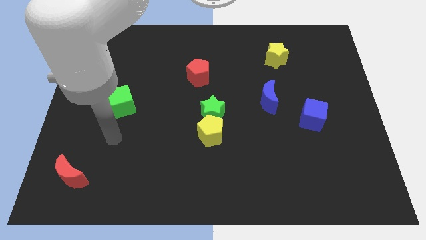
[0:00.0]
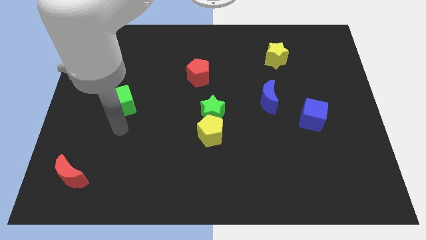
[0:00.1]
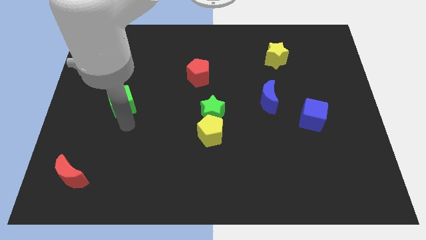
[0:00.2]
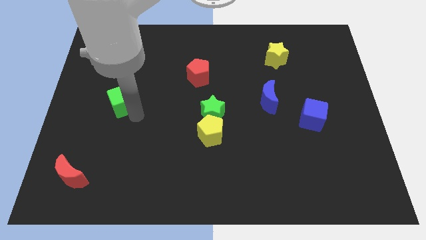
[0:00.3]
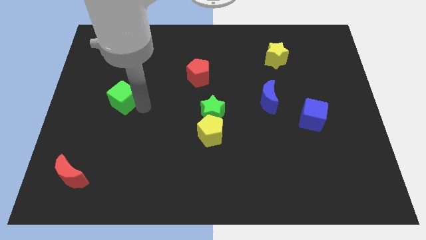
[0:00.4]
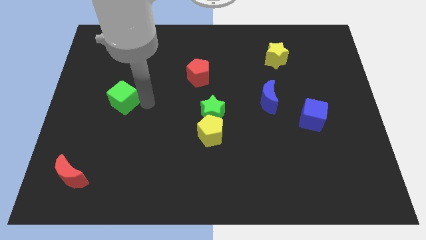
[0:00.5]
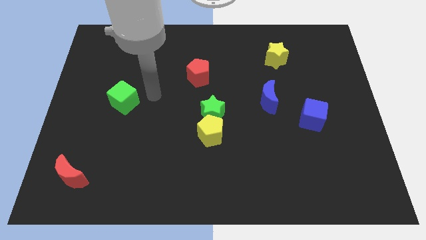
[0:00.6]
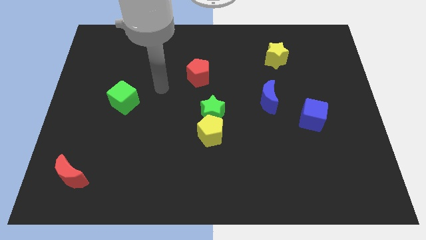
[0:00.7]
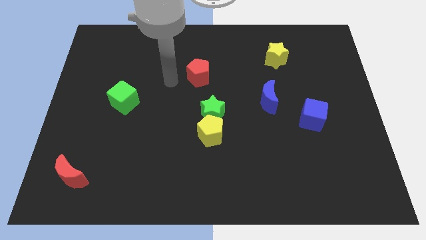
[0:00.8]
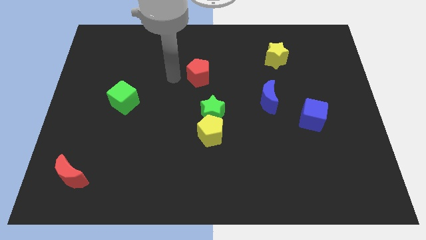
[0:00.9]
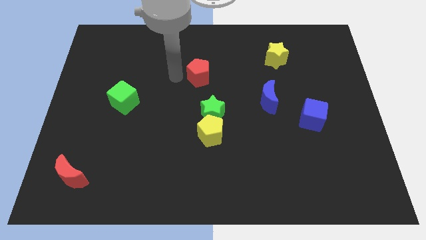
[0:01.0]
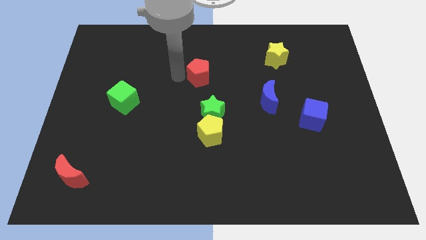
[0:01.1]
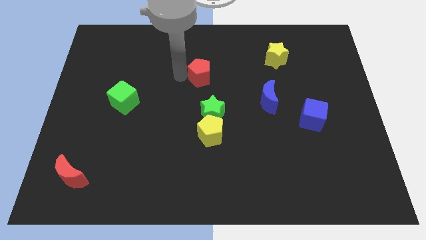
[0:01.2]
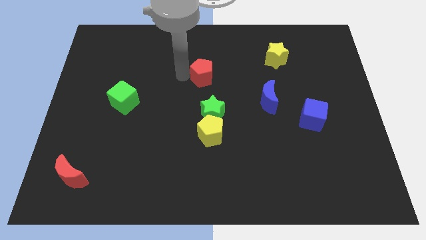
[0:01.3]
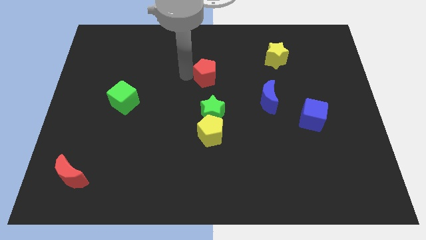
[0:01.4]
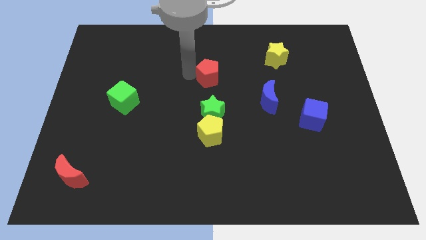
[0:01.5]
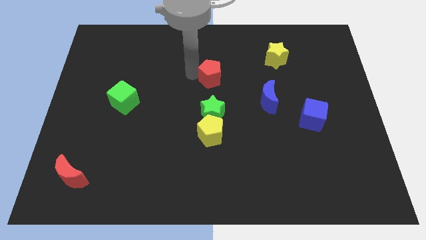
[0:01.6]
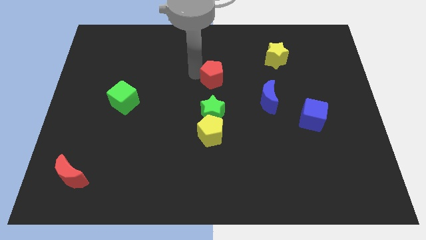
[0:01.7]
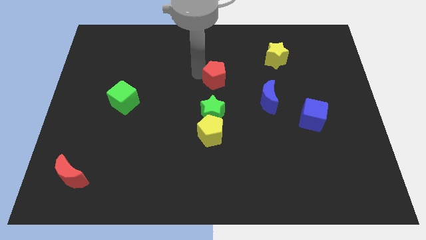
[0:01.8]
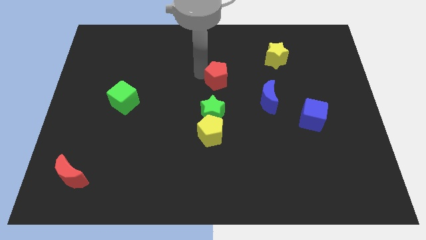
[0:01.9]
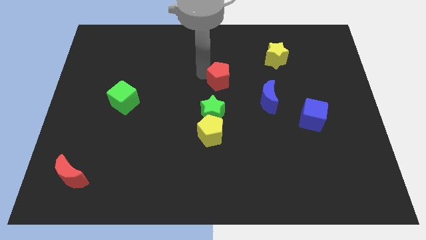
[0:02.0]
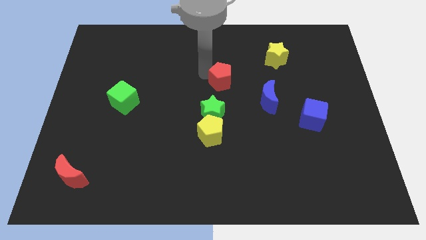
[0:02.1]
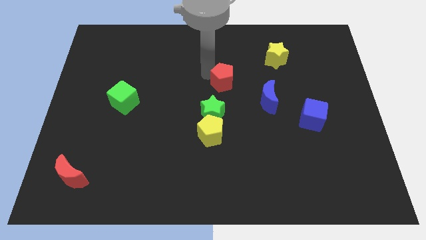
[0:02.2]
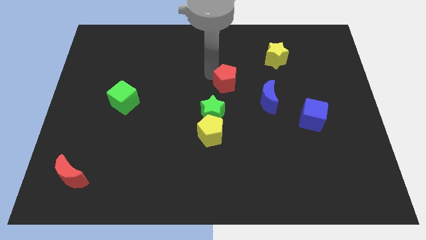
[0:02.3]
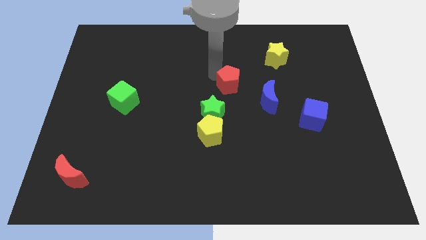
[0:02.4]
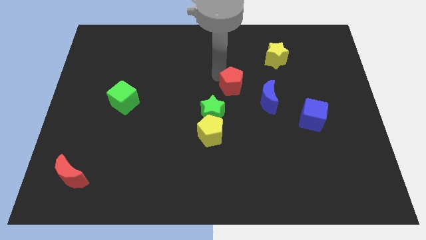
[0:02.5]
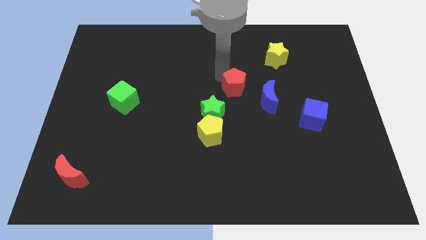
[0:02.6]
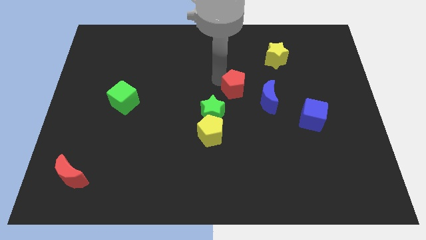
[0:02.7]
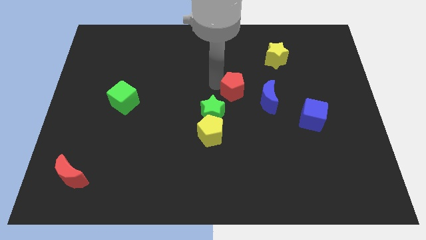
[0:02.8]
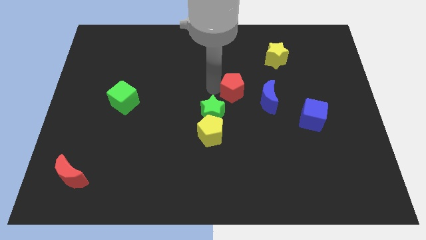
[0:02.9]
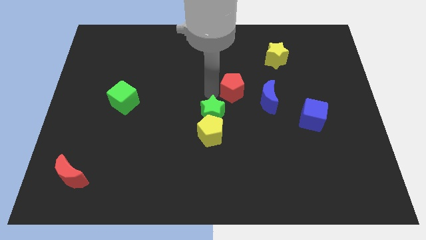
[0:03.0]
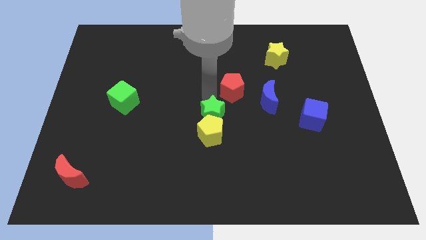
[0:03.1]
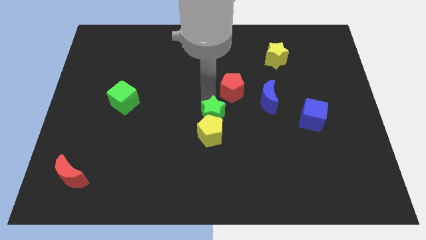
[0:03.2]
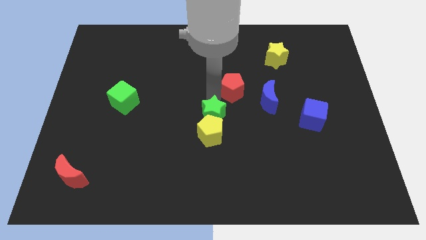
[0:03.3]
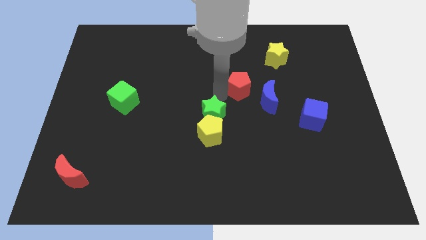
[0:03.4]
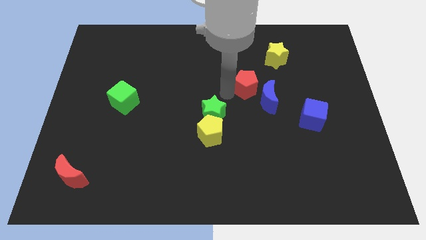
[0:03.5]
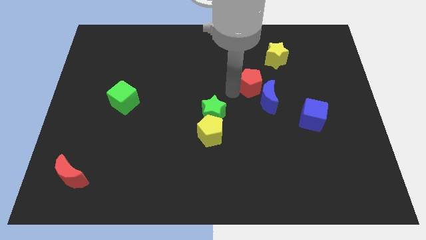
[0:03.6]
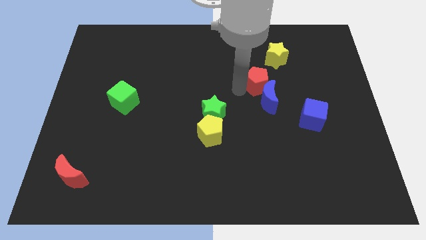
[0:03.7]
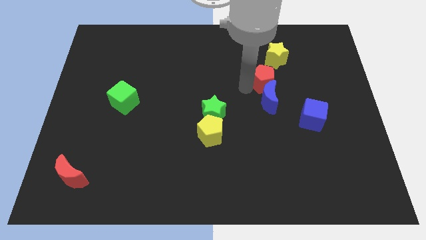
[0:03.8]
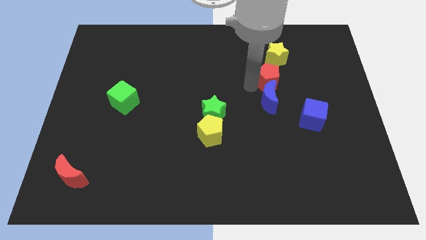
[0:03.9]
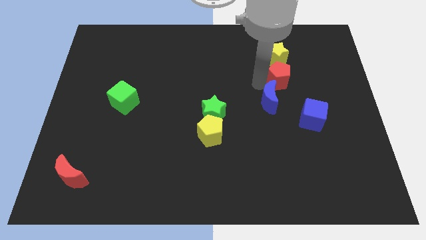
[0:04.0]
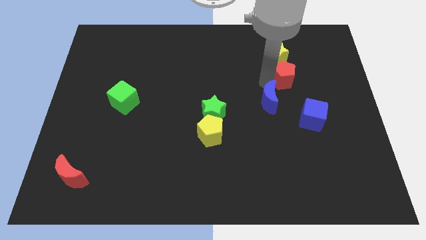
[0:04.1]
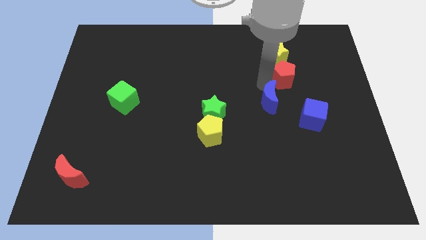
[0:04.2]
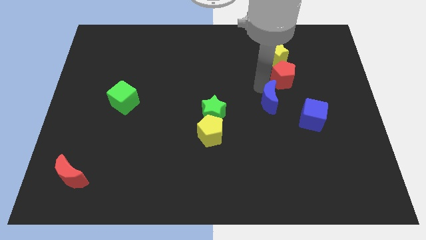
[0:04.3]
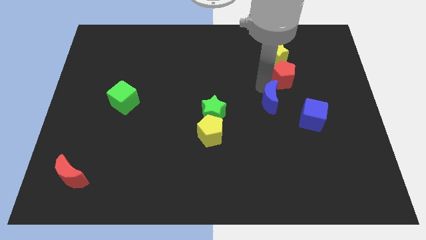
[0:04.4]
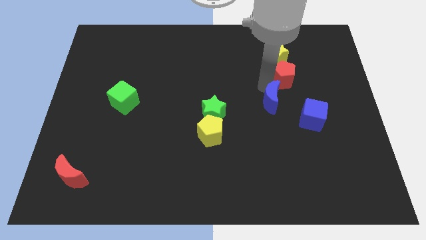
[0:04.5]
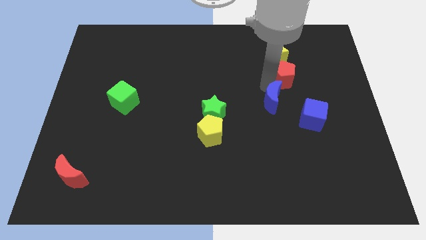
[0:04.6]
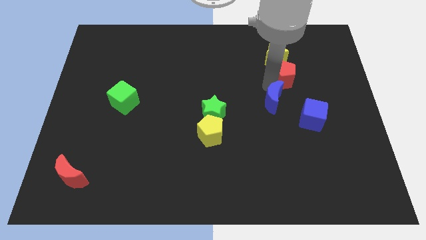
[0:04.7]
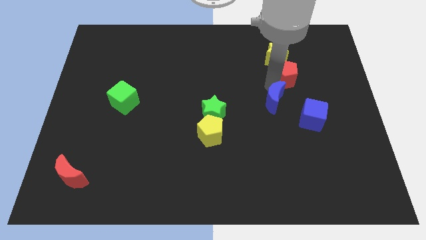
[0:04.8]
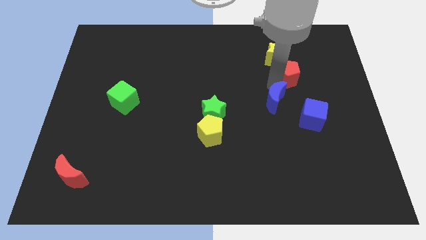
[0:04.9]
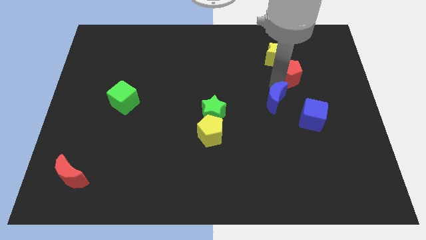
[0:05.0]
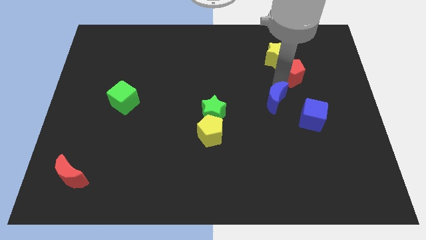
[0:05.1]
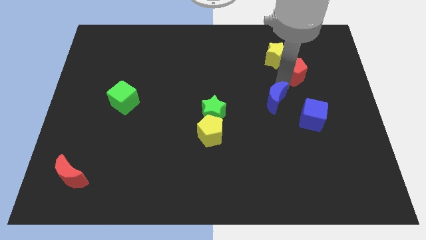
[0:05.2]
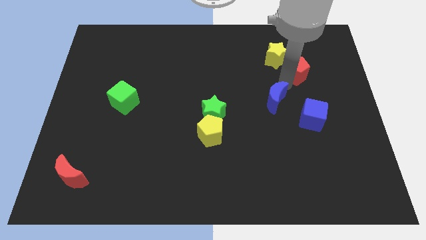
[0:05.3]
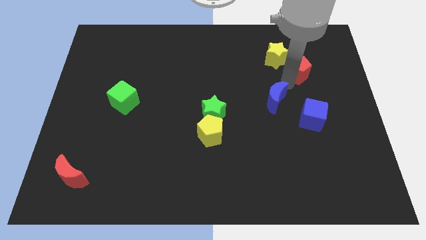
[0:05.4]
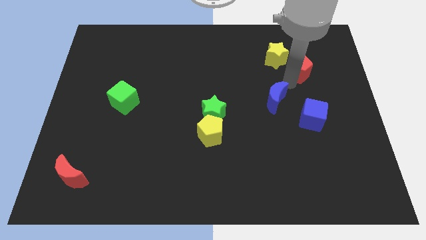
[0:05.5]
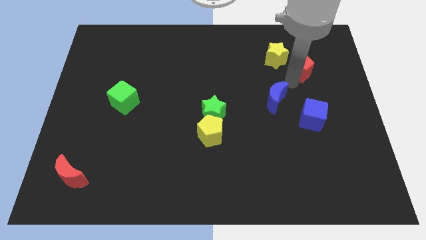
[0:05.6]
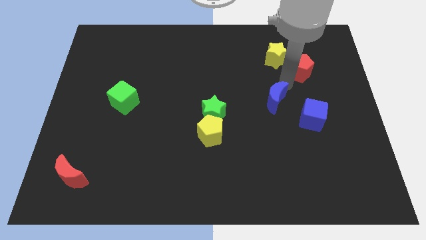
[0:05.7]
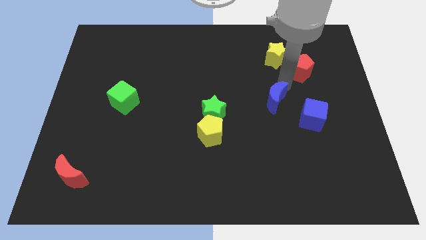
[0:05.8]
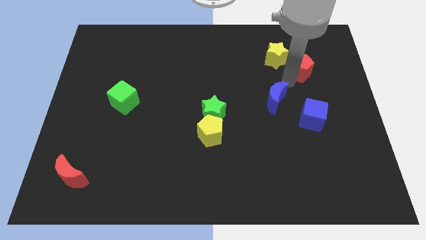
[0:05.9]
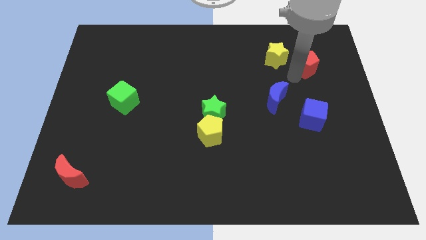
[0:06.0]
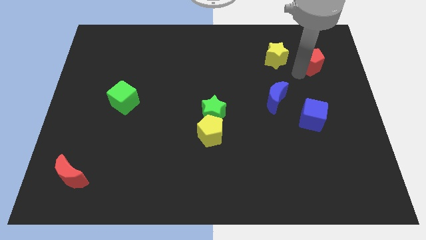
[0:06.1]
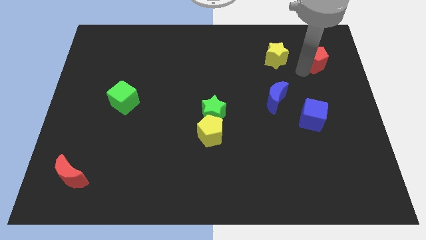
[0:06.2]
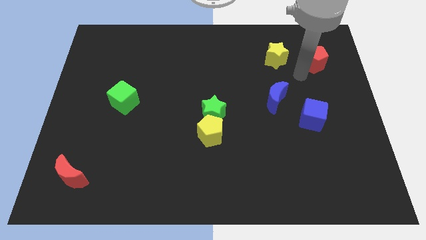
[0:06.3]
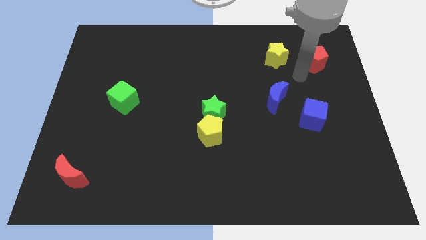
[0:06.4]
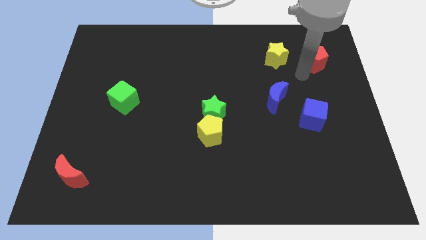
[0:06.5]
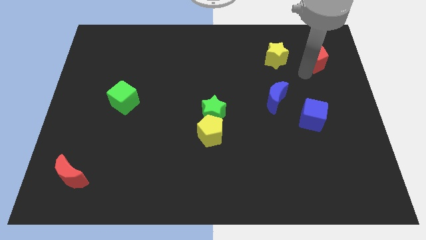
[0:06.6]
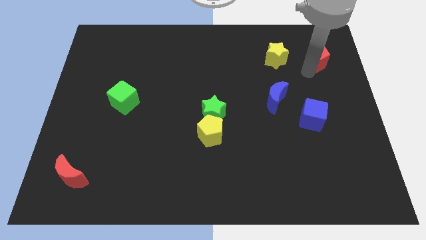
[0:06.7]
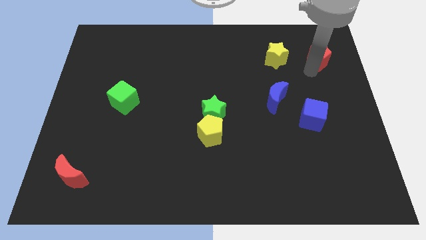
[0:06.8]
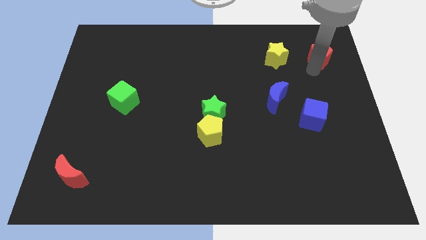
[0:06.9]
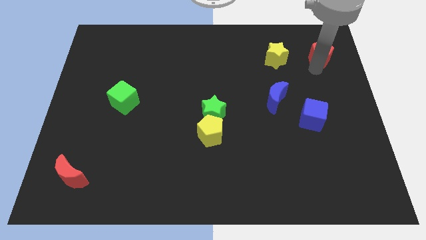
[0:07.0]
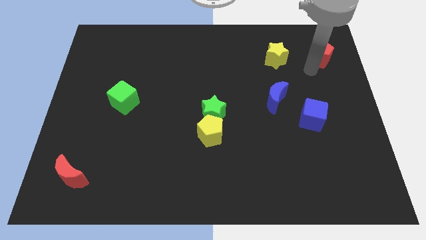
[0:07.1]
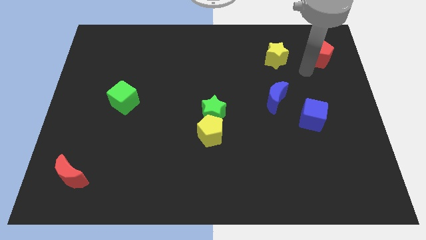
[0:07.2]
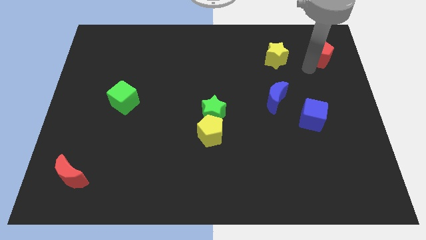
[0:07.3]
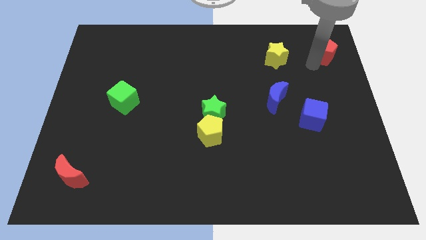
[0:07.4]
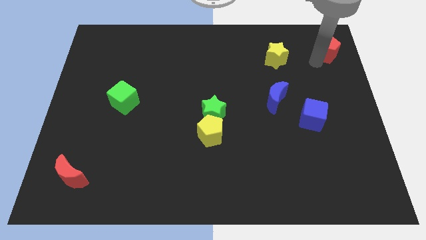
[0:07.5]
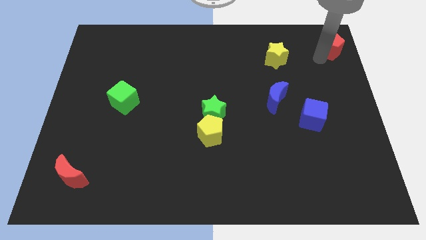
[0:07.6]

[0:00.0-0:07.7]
move the red pentagon to the top right corner

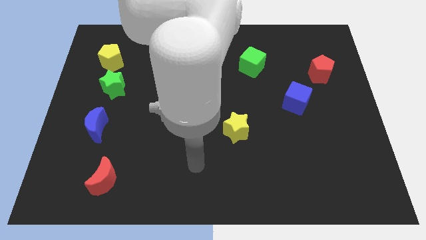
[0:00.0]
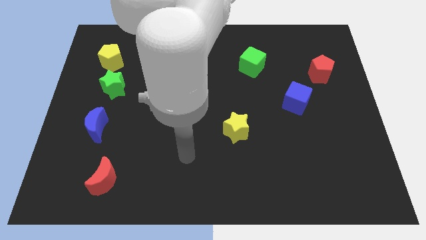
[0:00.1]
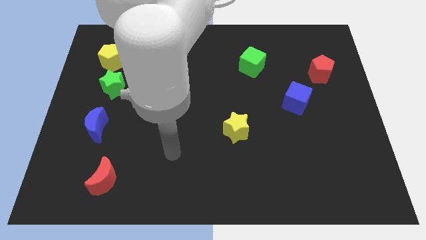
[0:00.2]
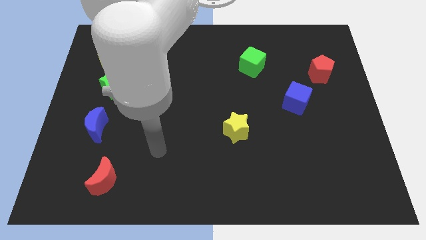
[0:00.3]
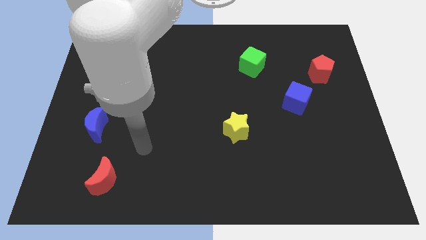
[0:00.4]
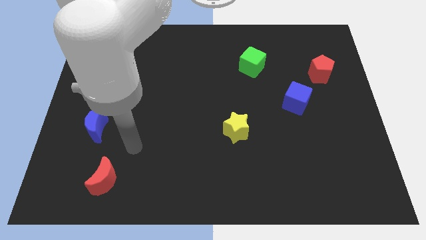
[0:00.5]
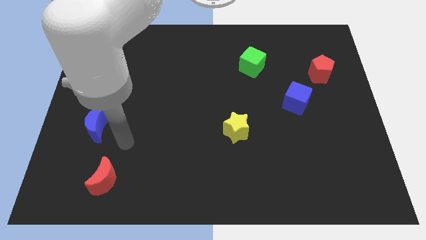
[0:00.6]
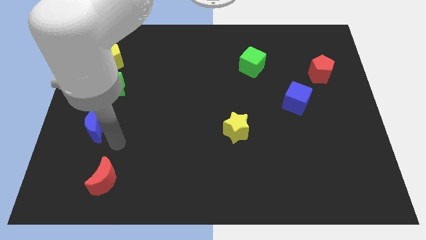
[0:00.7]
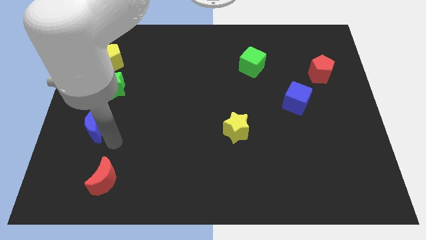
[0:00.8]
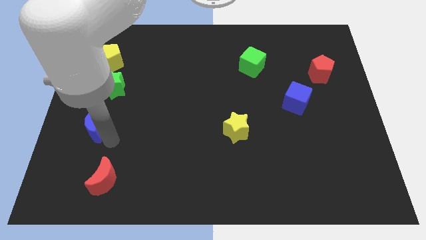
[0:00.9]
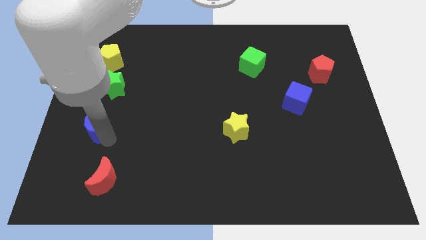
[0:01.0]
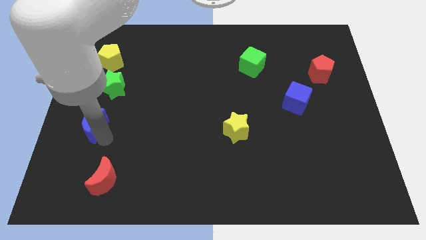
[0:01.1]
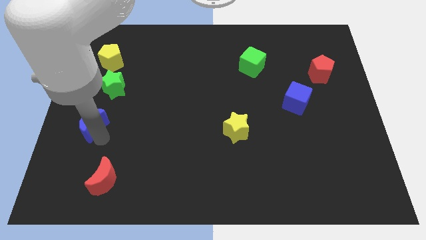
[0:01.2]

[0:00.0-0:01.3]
put the blue moon to the center left
